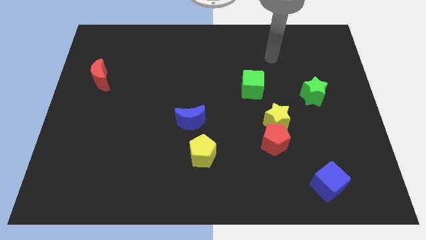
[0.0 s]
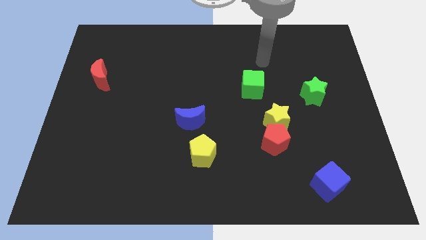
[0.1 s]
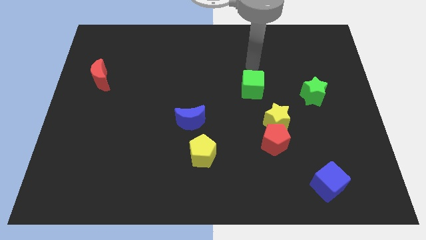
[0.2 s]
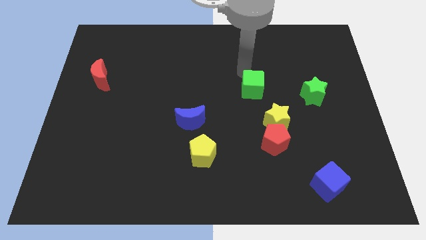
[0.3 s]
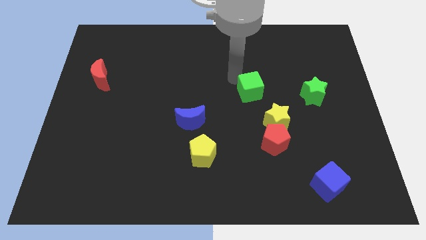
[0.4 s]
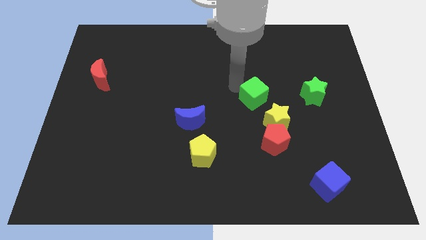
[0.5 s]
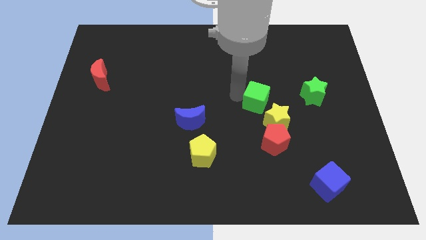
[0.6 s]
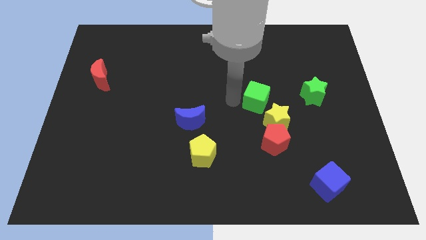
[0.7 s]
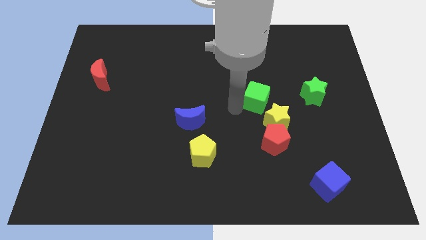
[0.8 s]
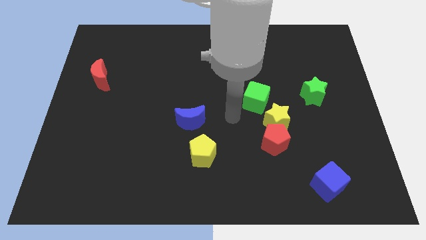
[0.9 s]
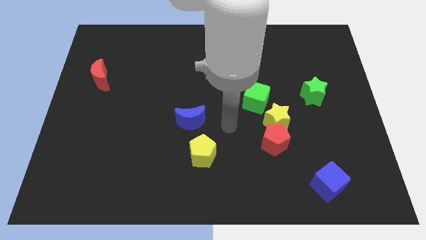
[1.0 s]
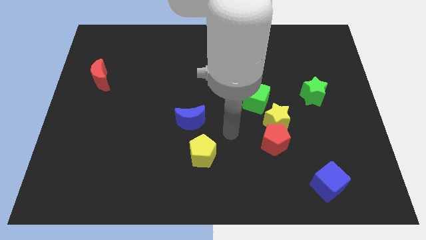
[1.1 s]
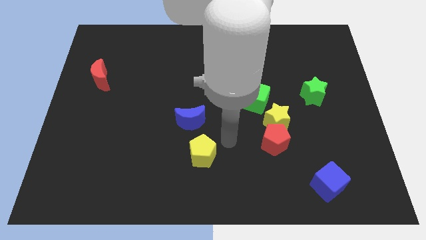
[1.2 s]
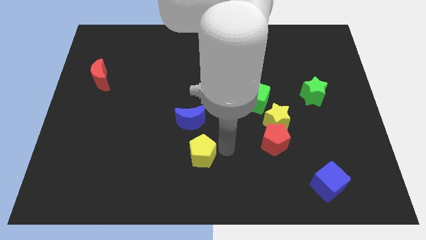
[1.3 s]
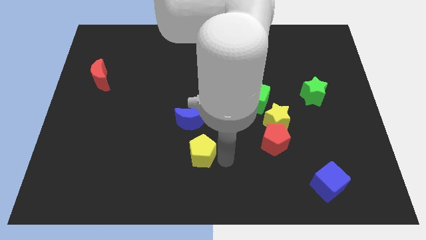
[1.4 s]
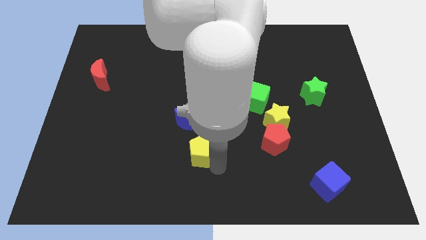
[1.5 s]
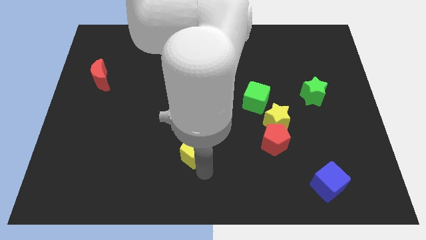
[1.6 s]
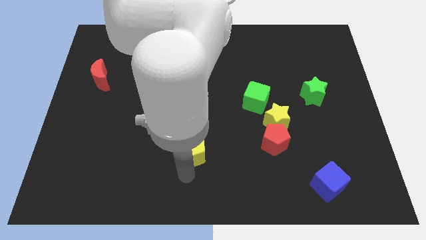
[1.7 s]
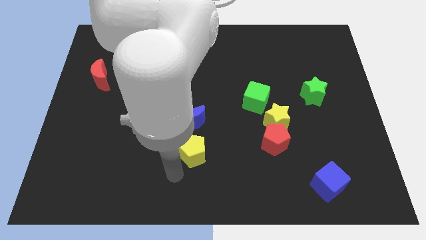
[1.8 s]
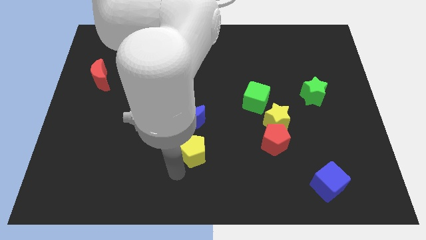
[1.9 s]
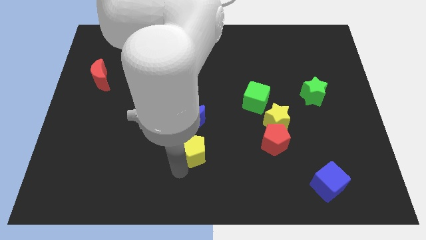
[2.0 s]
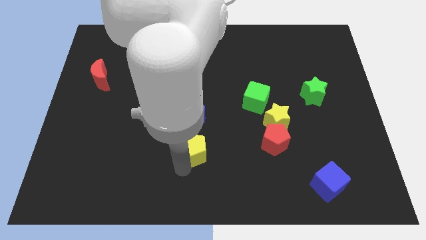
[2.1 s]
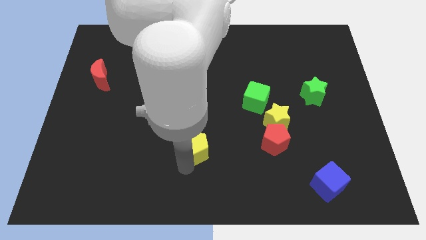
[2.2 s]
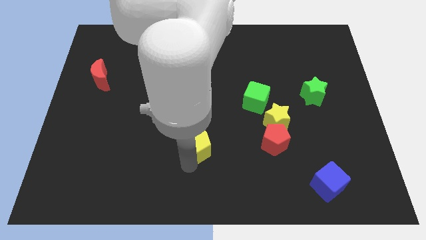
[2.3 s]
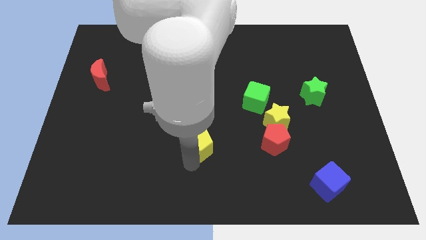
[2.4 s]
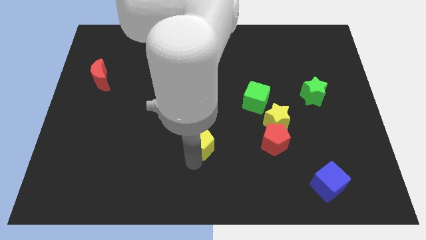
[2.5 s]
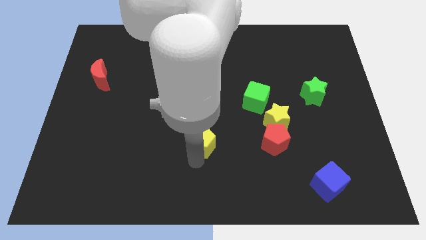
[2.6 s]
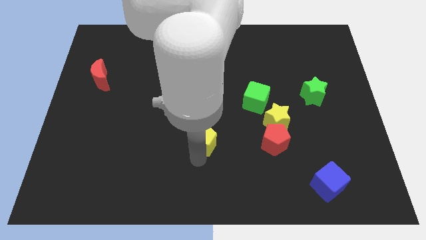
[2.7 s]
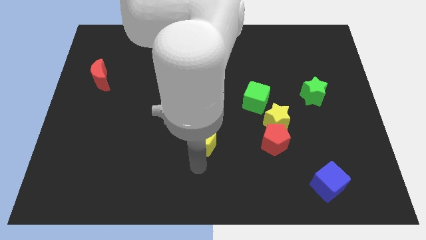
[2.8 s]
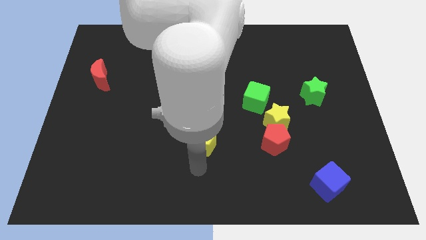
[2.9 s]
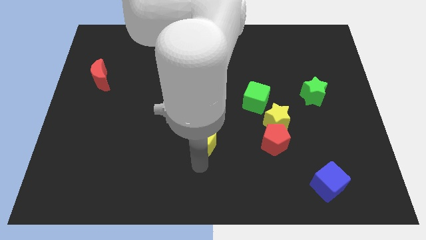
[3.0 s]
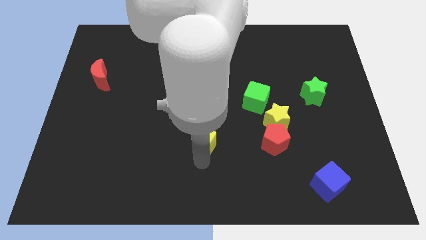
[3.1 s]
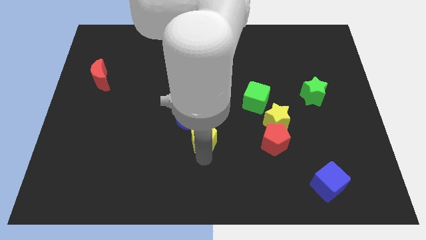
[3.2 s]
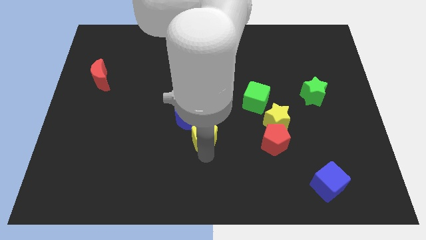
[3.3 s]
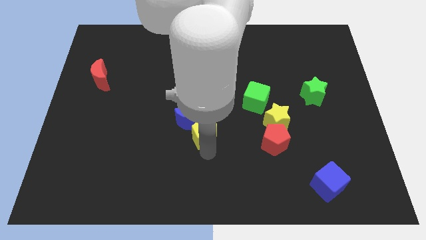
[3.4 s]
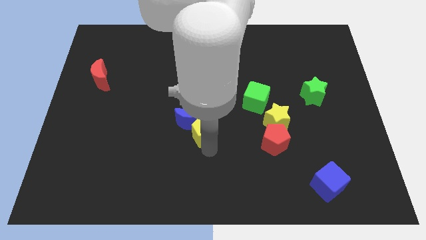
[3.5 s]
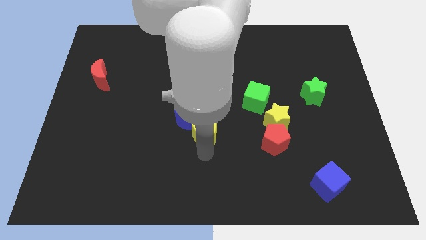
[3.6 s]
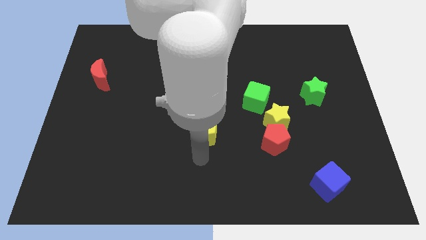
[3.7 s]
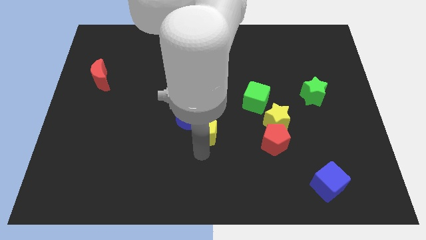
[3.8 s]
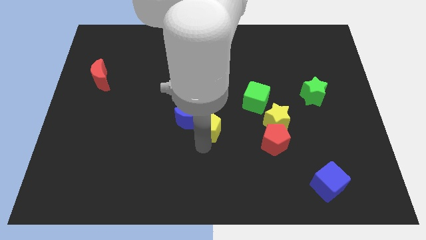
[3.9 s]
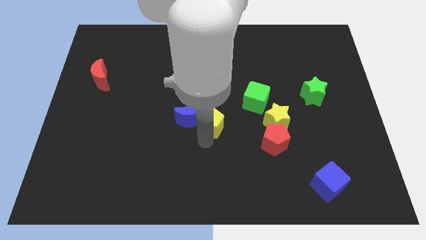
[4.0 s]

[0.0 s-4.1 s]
slightly slide the yellow pentagon upwards

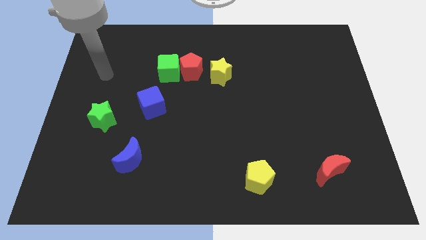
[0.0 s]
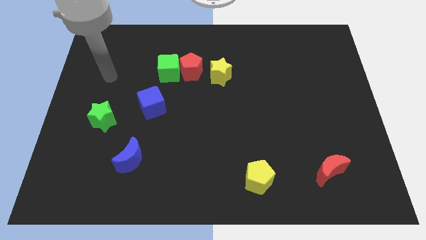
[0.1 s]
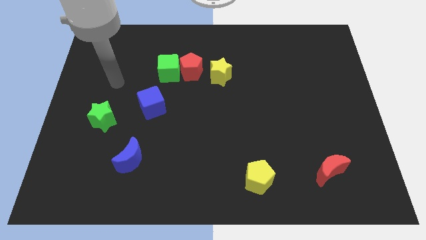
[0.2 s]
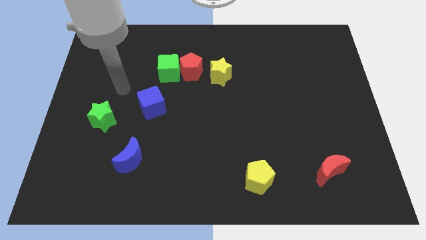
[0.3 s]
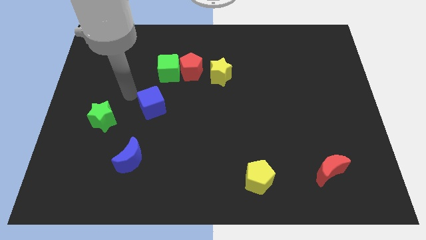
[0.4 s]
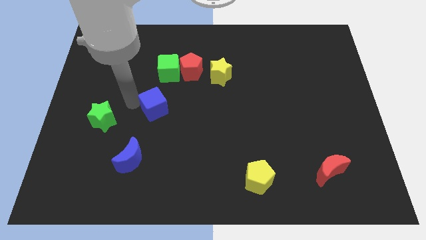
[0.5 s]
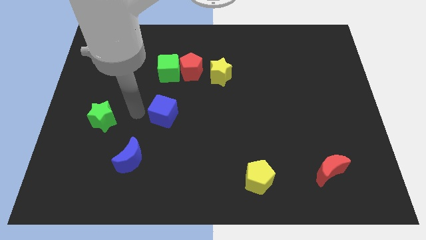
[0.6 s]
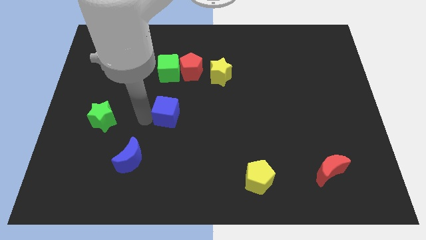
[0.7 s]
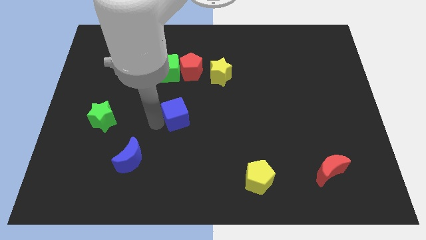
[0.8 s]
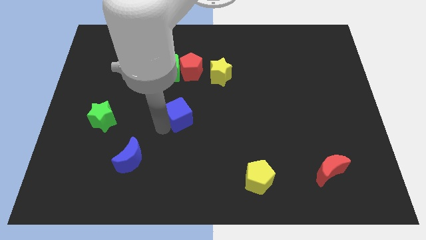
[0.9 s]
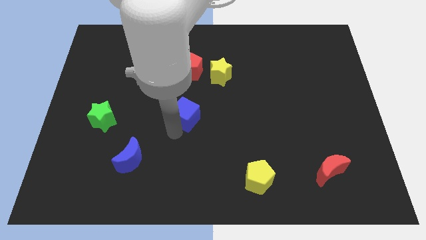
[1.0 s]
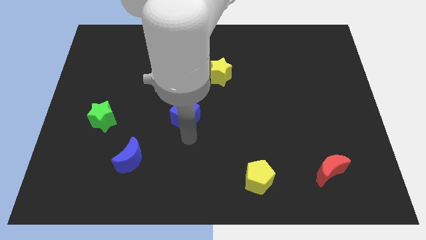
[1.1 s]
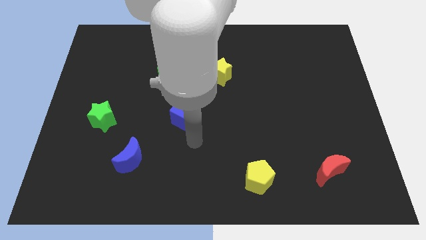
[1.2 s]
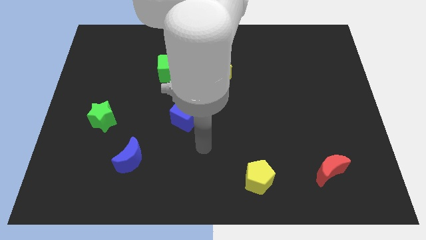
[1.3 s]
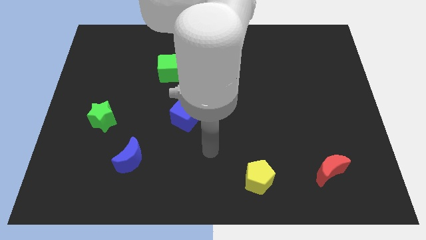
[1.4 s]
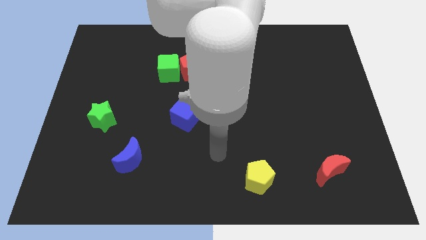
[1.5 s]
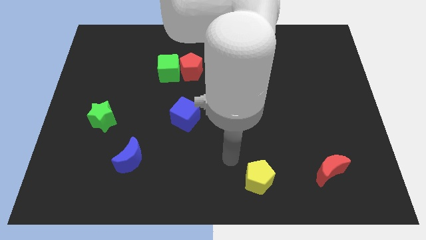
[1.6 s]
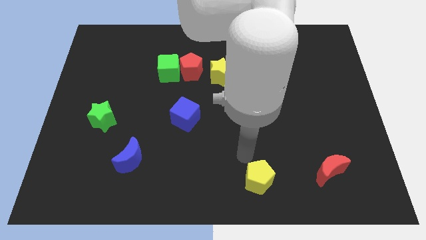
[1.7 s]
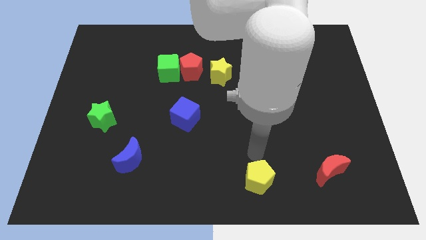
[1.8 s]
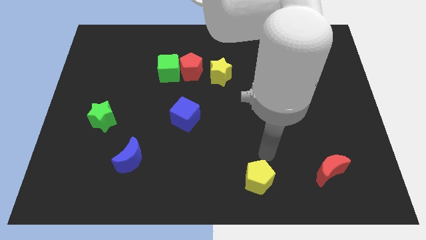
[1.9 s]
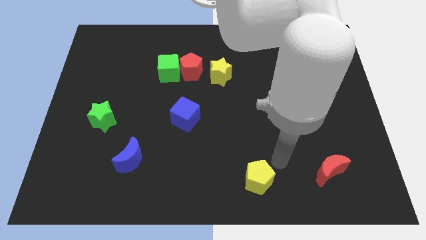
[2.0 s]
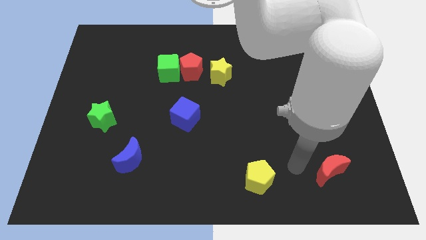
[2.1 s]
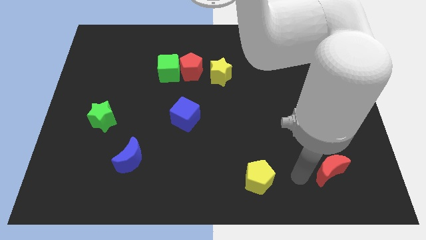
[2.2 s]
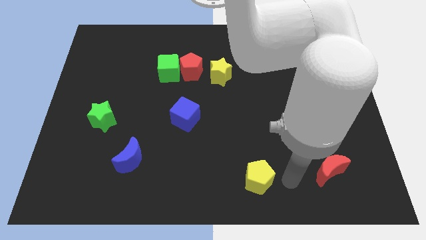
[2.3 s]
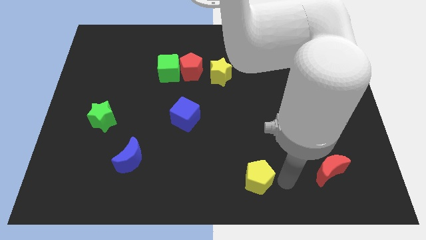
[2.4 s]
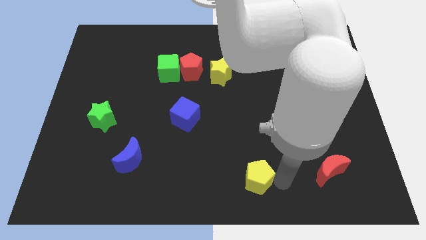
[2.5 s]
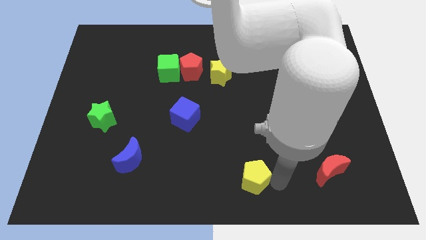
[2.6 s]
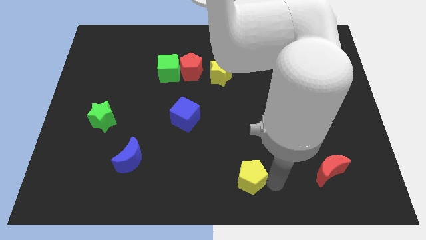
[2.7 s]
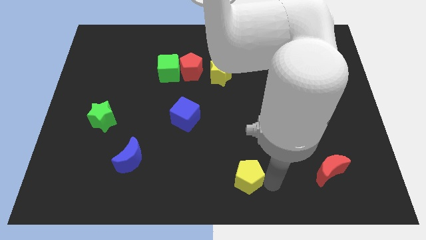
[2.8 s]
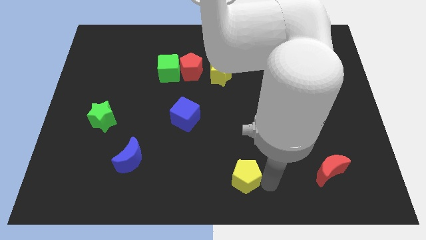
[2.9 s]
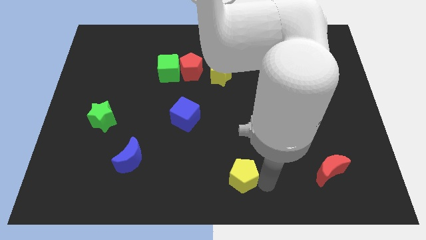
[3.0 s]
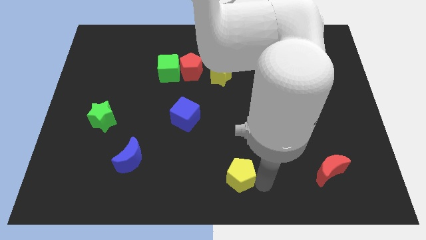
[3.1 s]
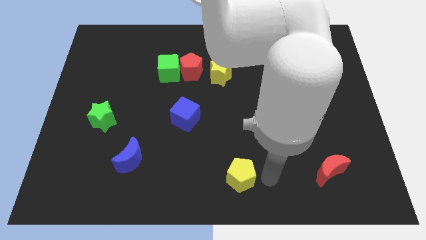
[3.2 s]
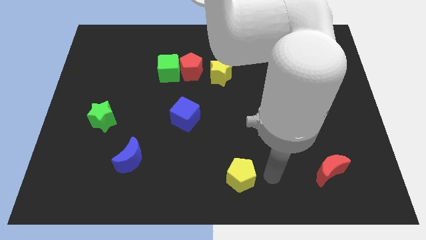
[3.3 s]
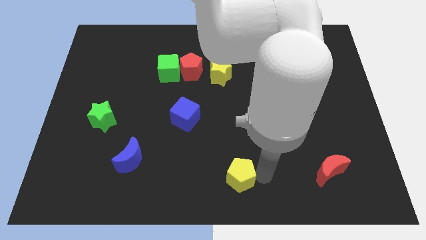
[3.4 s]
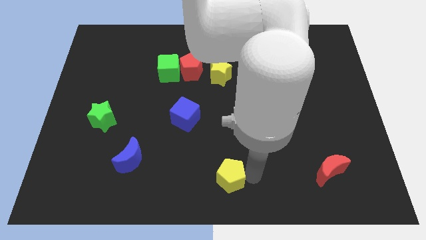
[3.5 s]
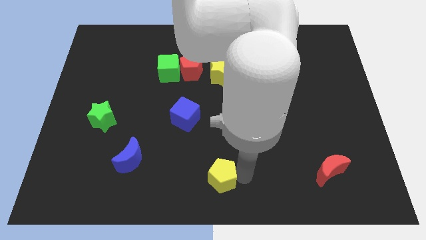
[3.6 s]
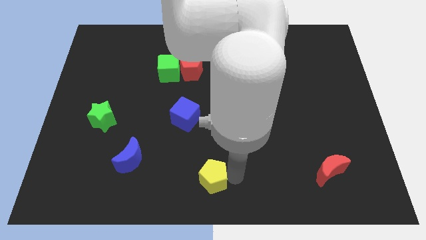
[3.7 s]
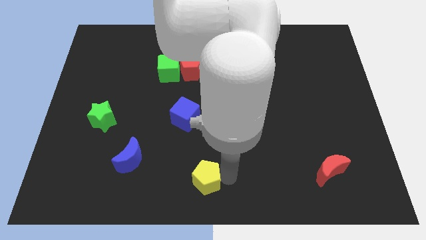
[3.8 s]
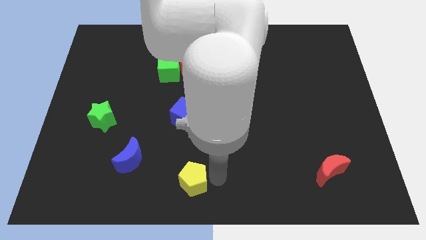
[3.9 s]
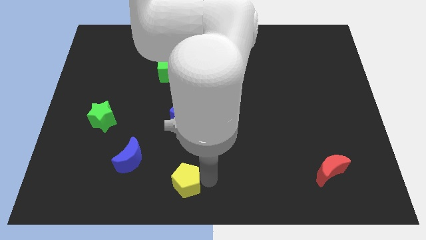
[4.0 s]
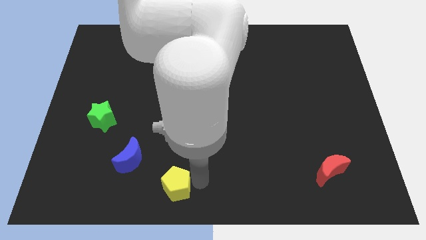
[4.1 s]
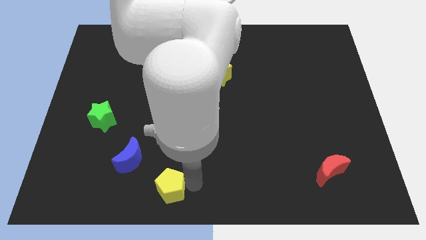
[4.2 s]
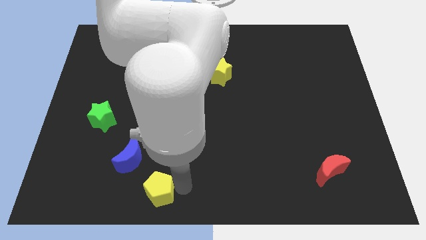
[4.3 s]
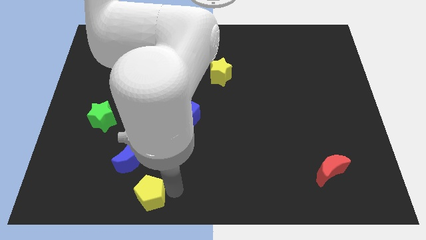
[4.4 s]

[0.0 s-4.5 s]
push the yellow pentagon to the left
